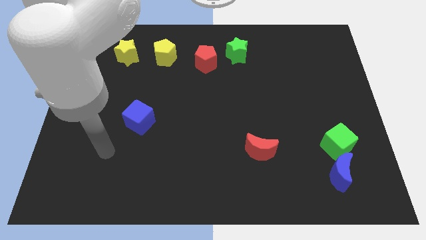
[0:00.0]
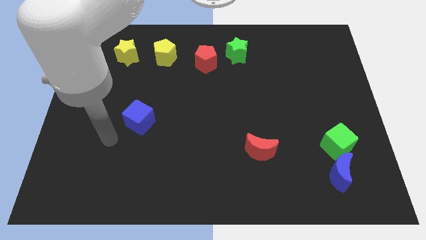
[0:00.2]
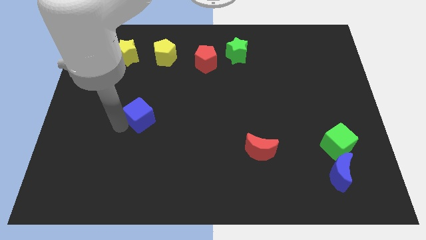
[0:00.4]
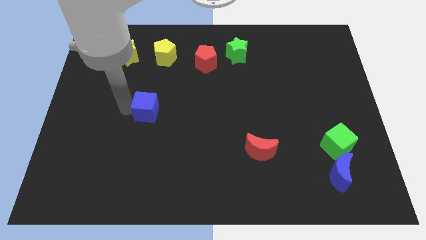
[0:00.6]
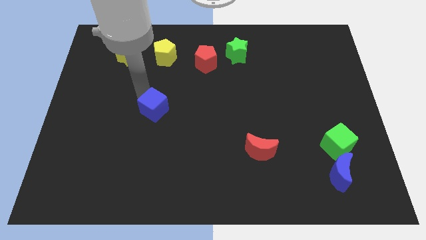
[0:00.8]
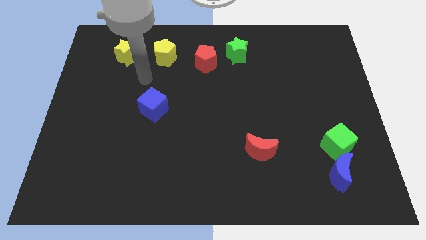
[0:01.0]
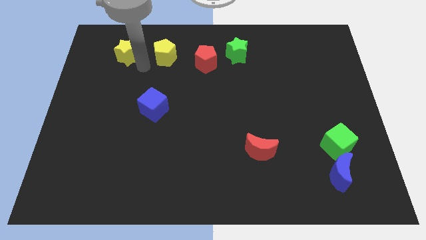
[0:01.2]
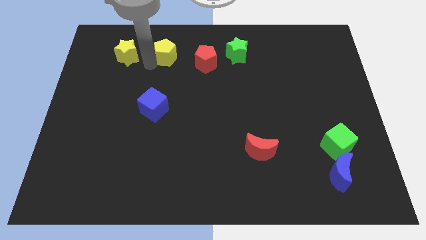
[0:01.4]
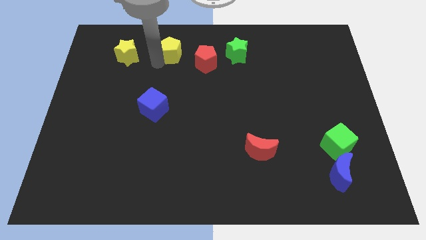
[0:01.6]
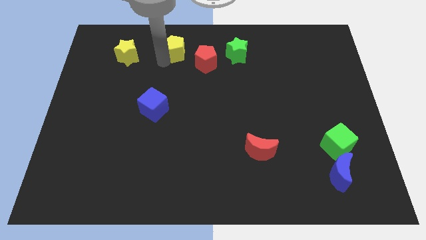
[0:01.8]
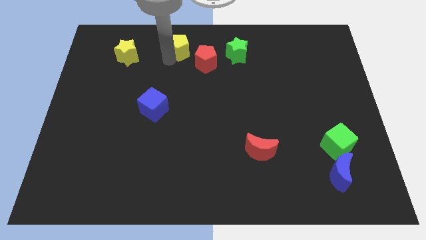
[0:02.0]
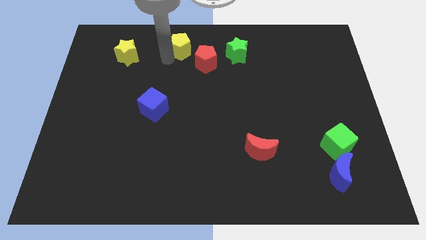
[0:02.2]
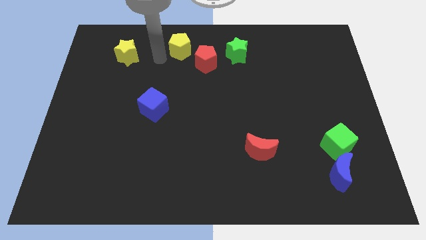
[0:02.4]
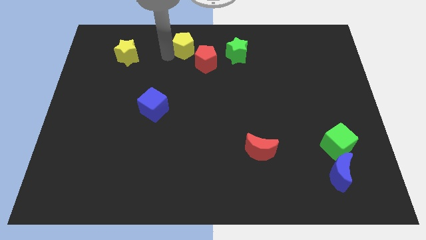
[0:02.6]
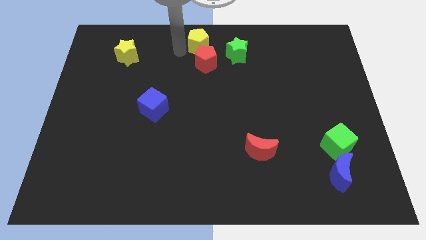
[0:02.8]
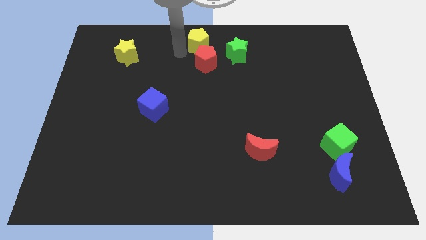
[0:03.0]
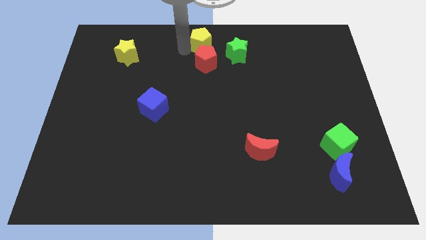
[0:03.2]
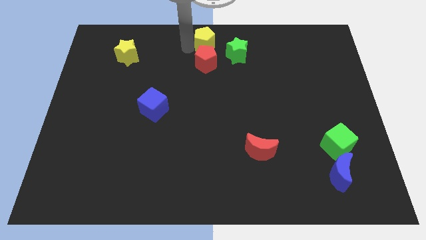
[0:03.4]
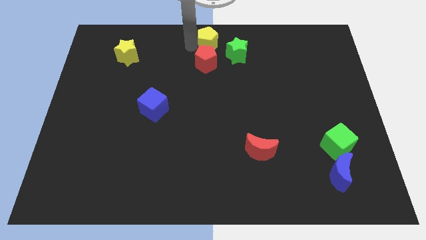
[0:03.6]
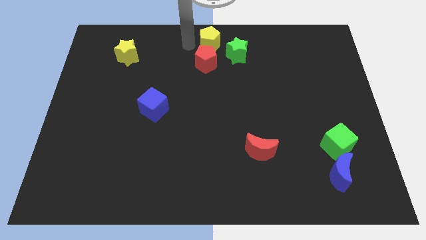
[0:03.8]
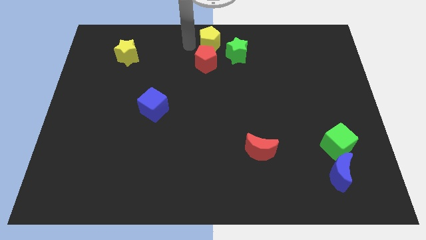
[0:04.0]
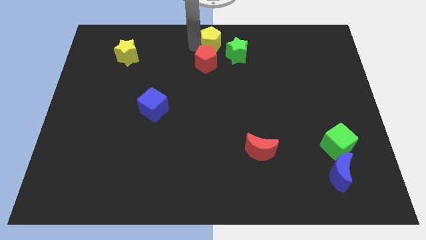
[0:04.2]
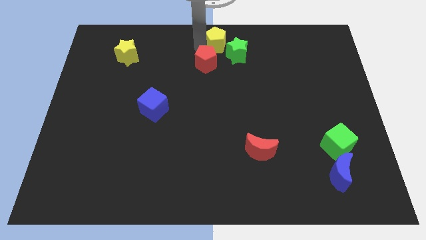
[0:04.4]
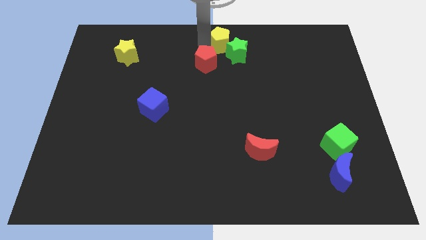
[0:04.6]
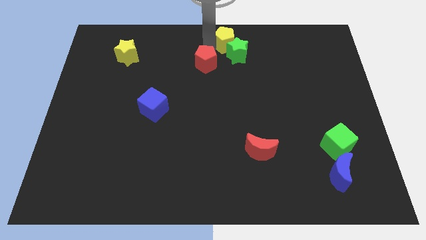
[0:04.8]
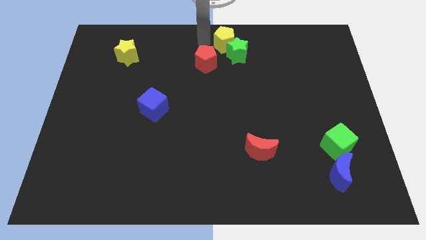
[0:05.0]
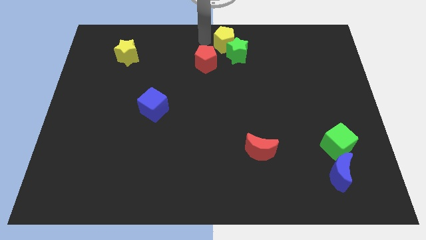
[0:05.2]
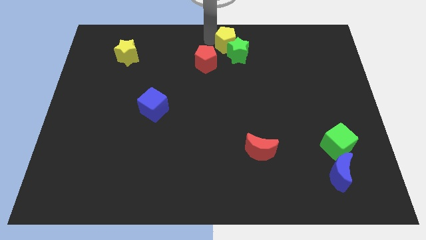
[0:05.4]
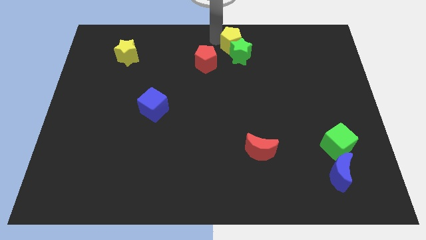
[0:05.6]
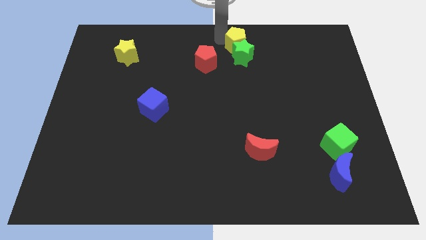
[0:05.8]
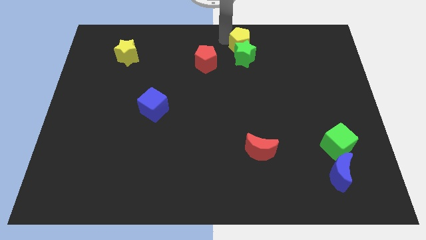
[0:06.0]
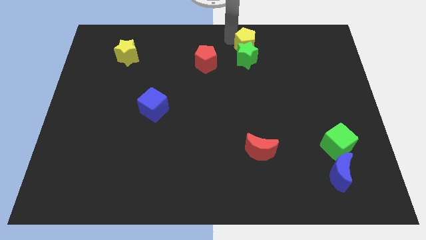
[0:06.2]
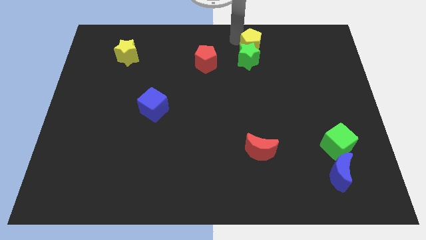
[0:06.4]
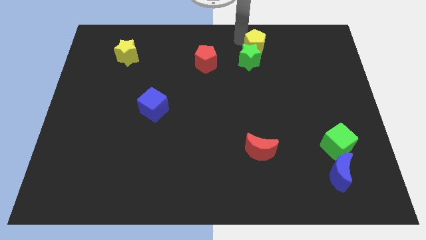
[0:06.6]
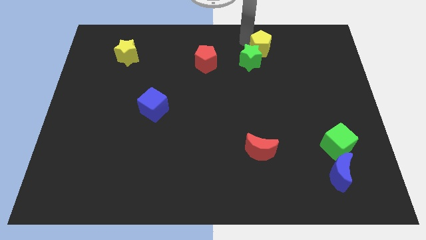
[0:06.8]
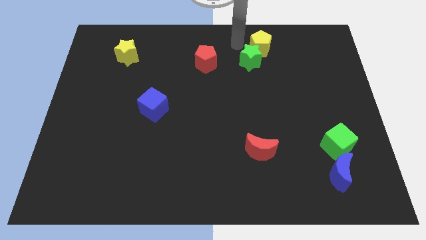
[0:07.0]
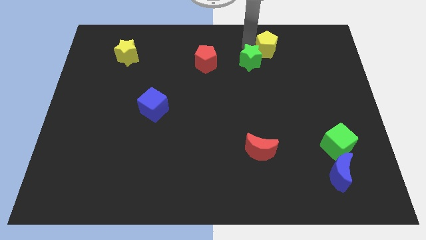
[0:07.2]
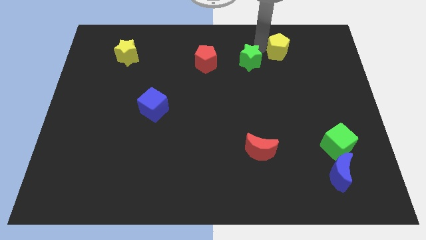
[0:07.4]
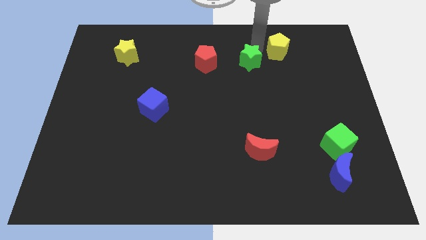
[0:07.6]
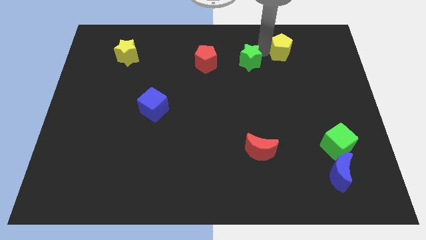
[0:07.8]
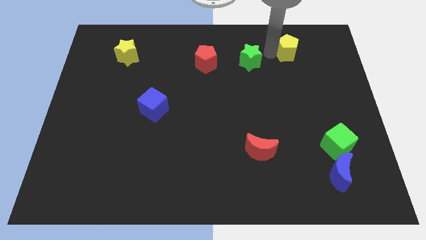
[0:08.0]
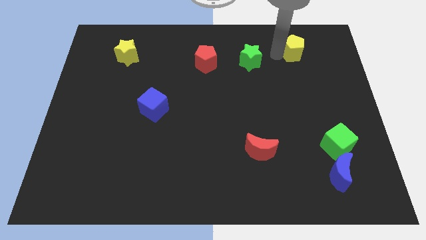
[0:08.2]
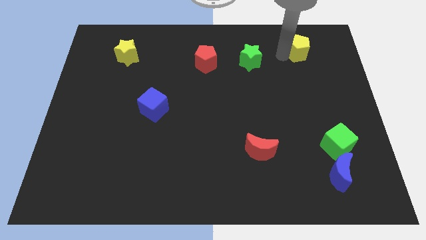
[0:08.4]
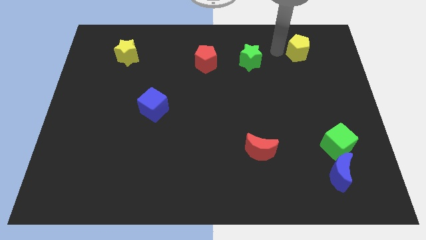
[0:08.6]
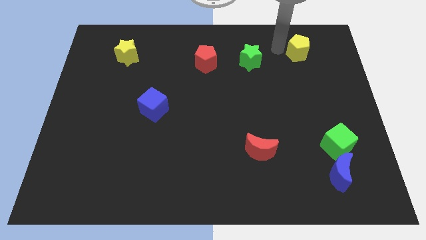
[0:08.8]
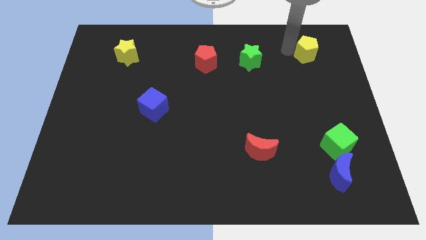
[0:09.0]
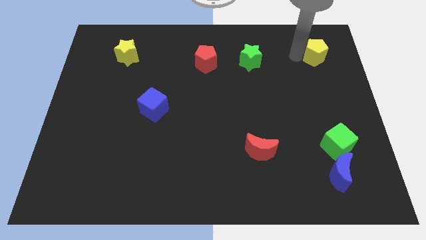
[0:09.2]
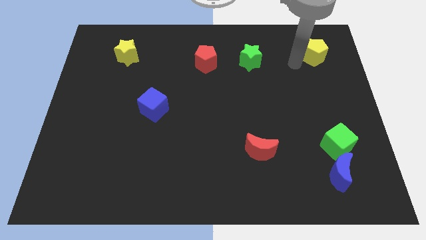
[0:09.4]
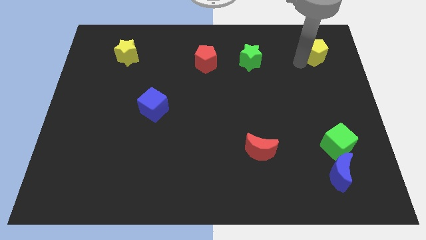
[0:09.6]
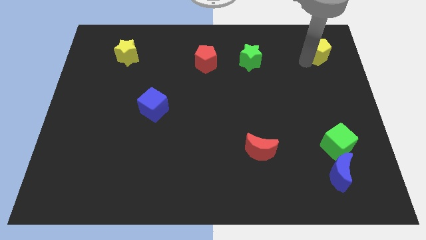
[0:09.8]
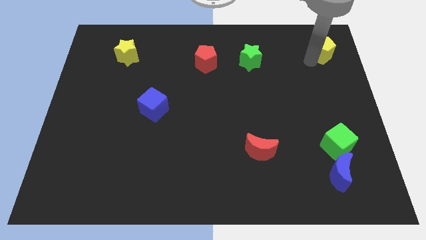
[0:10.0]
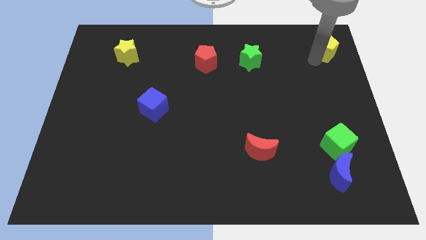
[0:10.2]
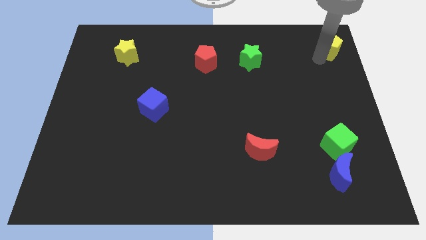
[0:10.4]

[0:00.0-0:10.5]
slide the yellow pentagon to the upper right corner

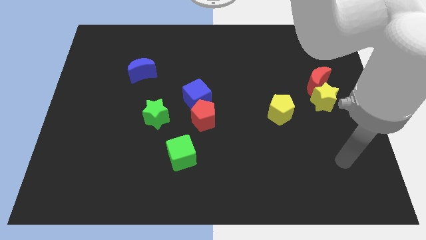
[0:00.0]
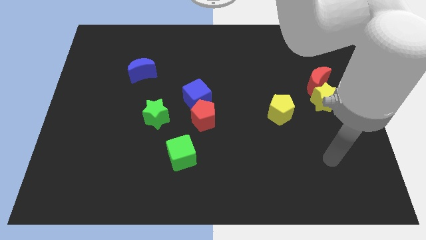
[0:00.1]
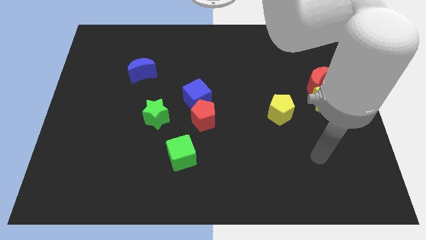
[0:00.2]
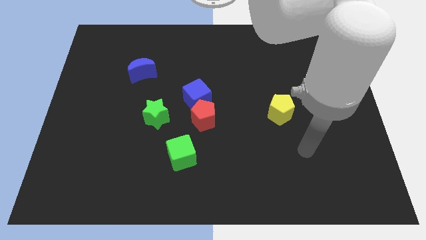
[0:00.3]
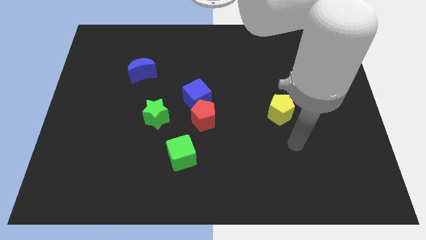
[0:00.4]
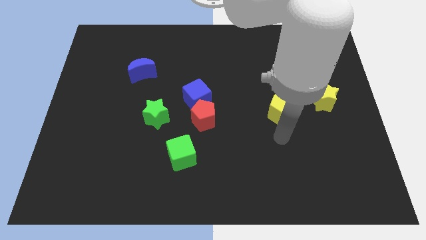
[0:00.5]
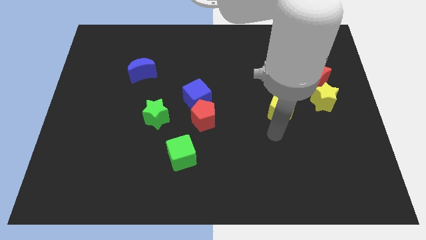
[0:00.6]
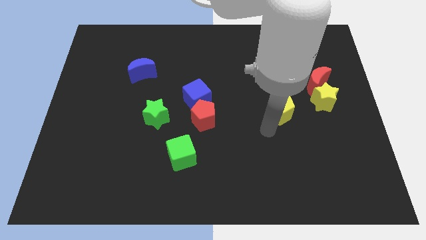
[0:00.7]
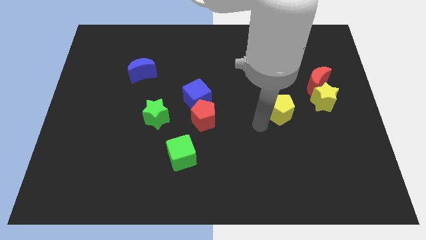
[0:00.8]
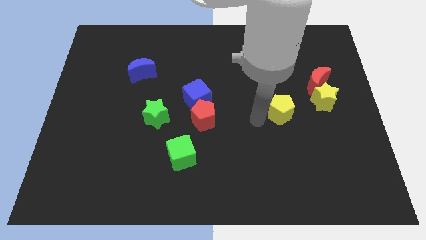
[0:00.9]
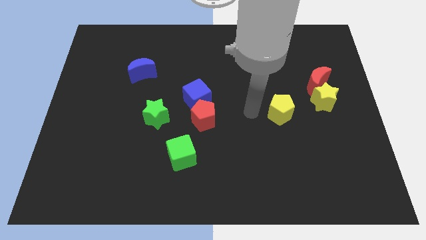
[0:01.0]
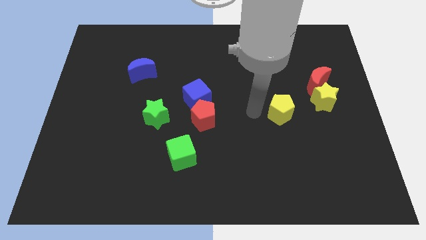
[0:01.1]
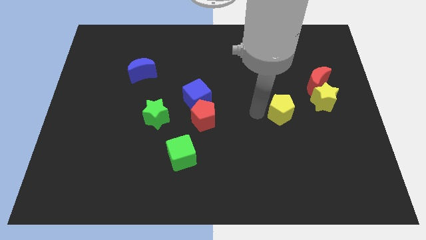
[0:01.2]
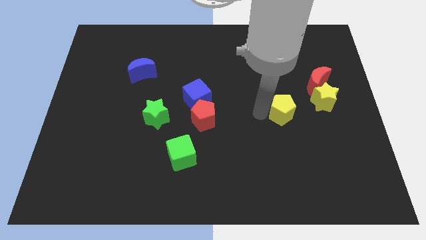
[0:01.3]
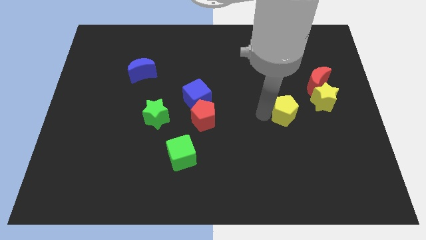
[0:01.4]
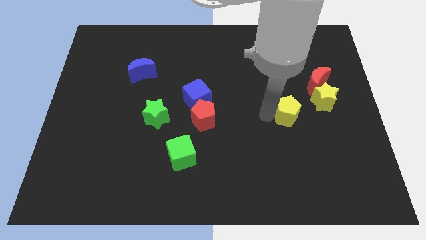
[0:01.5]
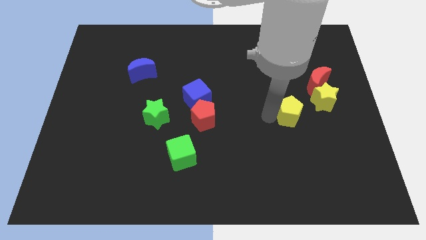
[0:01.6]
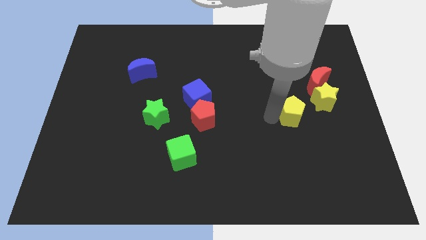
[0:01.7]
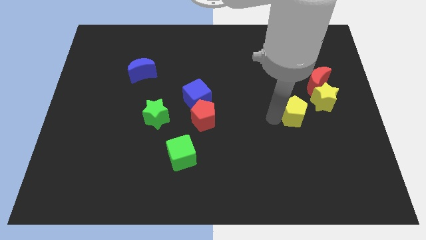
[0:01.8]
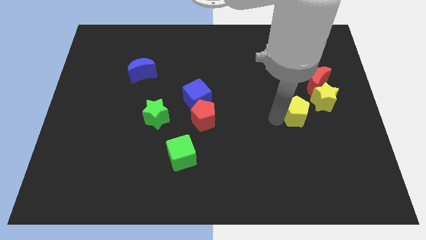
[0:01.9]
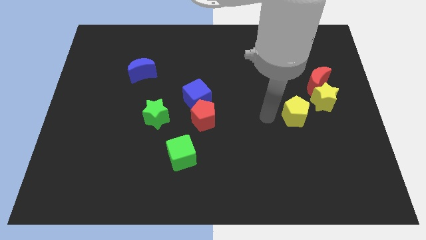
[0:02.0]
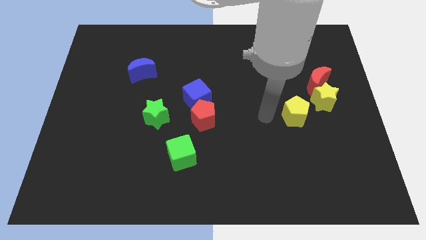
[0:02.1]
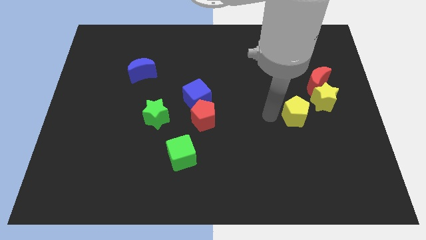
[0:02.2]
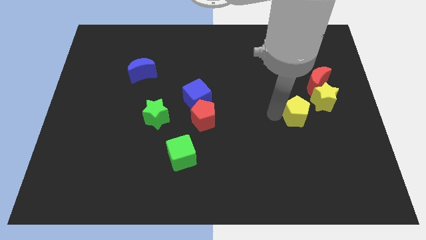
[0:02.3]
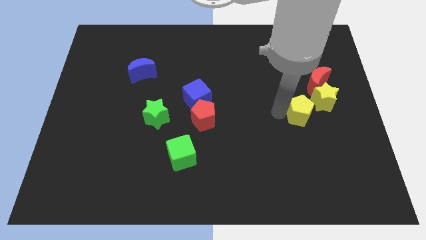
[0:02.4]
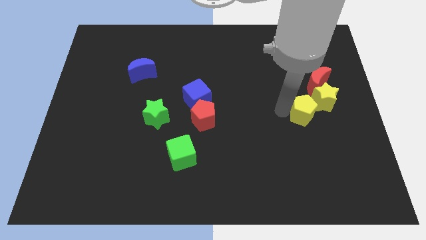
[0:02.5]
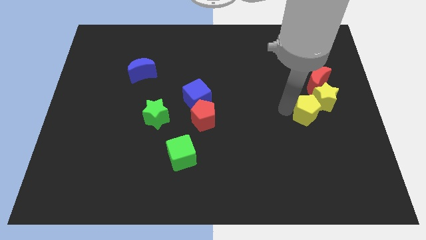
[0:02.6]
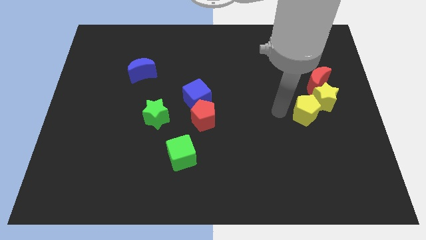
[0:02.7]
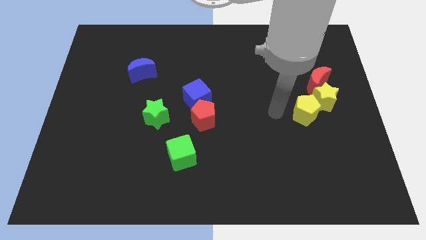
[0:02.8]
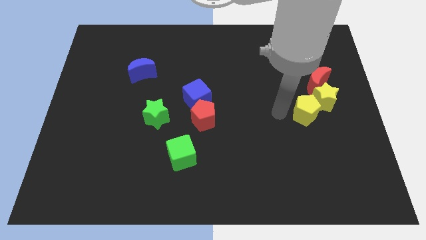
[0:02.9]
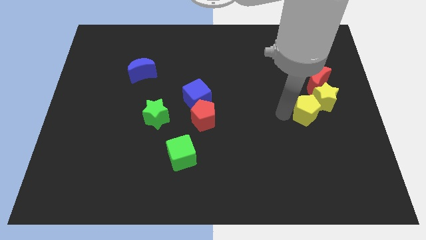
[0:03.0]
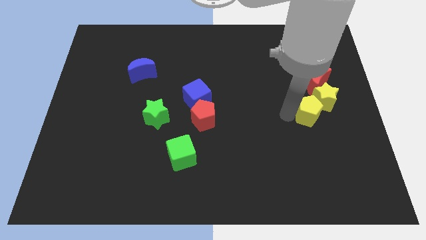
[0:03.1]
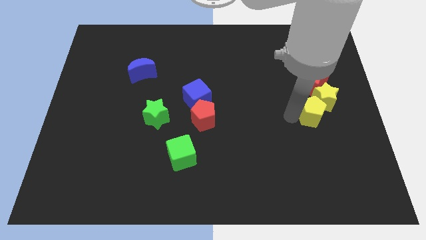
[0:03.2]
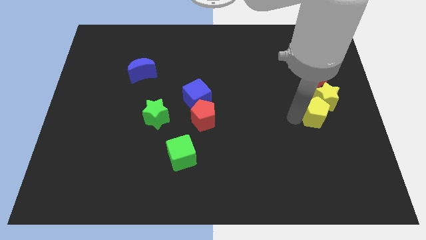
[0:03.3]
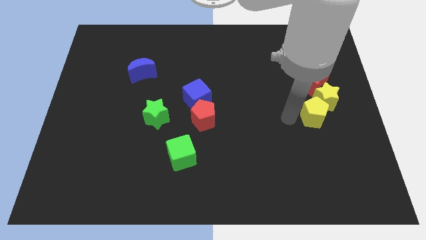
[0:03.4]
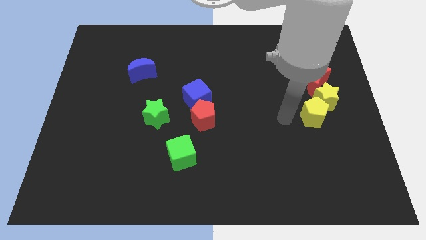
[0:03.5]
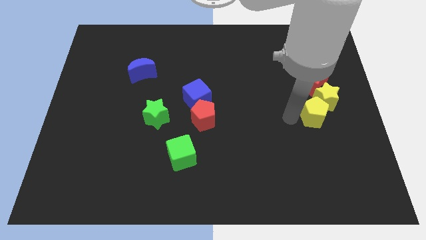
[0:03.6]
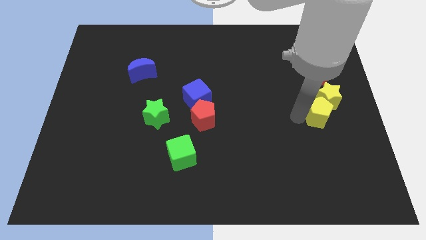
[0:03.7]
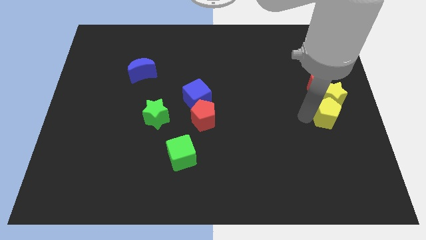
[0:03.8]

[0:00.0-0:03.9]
move the yellow pentagon to the center right
